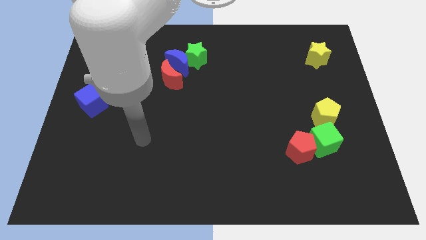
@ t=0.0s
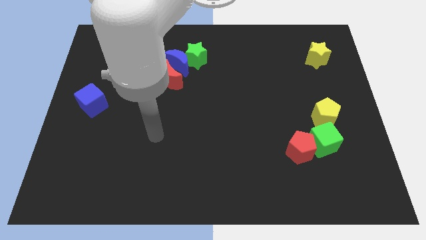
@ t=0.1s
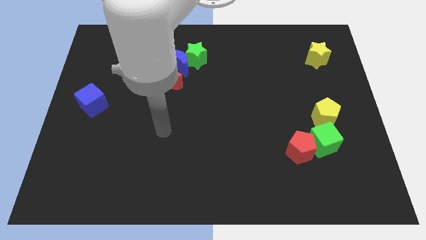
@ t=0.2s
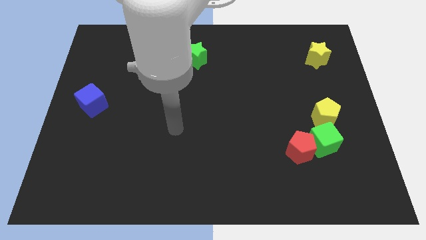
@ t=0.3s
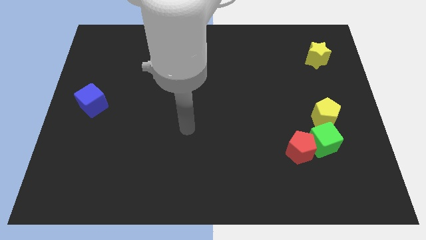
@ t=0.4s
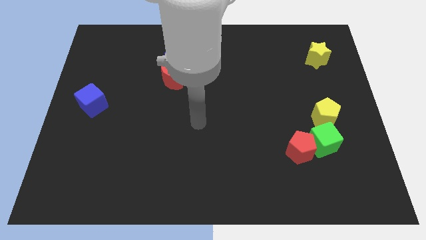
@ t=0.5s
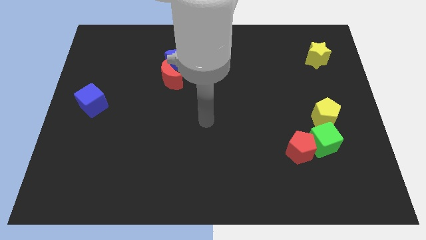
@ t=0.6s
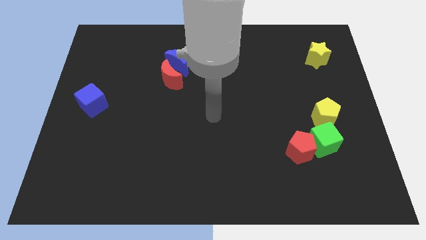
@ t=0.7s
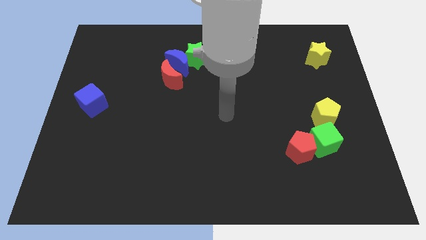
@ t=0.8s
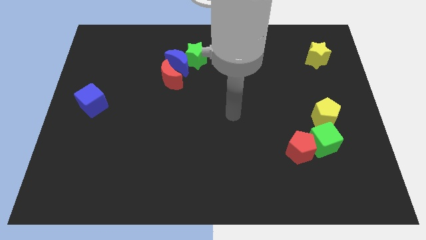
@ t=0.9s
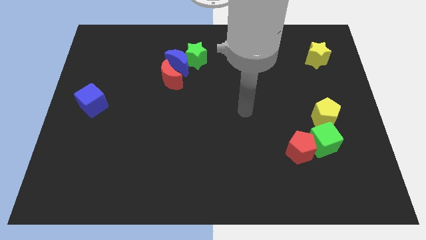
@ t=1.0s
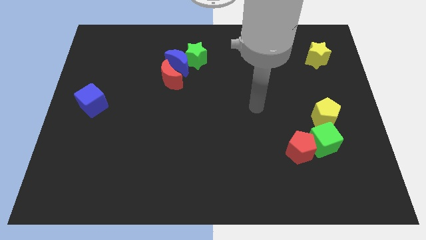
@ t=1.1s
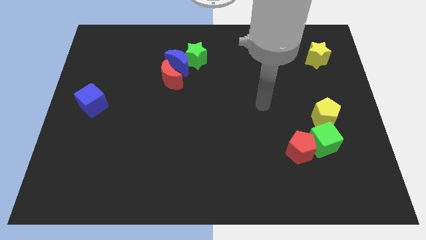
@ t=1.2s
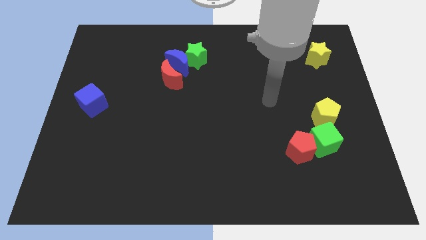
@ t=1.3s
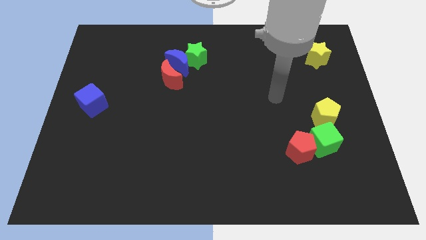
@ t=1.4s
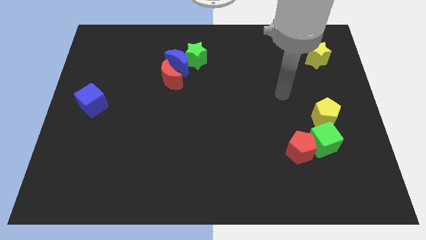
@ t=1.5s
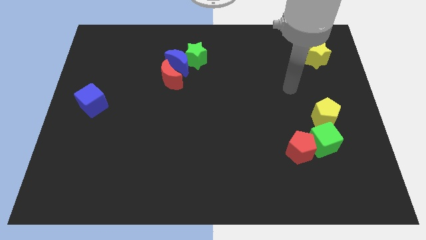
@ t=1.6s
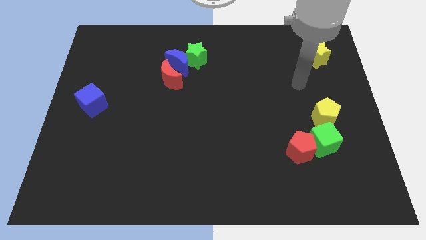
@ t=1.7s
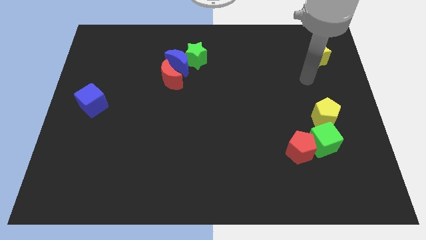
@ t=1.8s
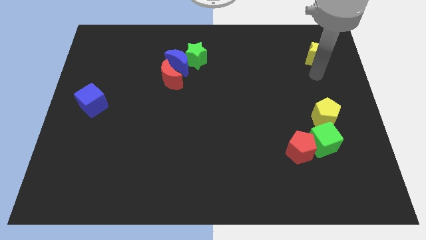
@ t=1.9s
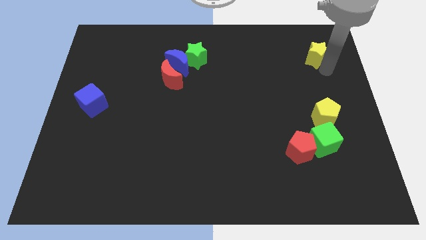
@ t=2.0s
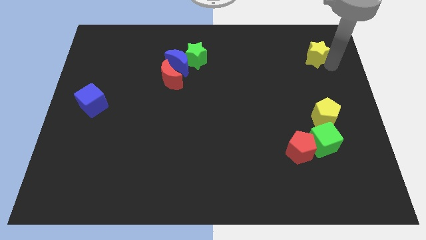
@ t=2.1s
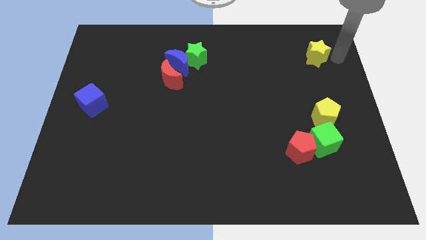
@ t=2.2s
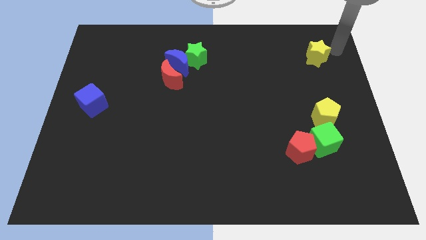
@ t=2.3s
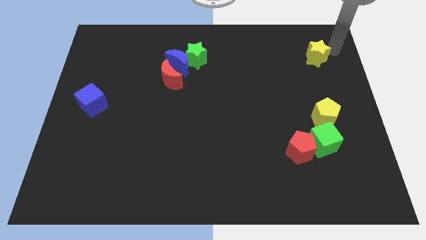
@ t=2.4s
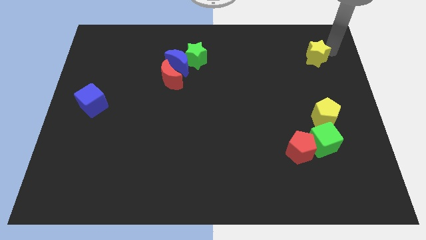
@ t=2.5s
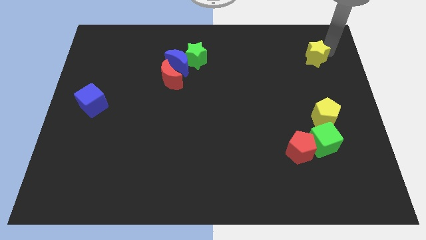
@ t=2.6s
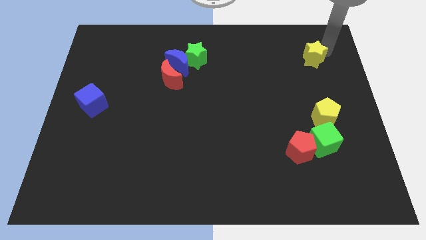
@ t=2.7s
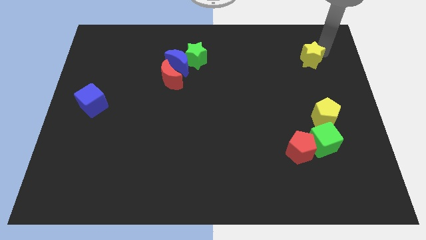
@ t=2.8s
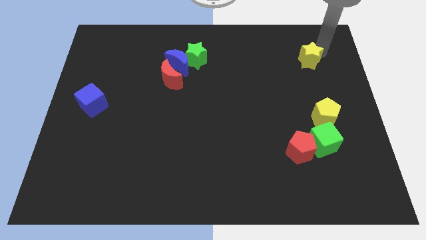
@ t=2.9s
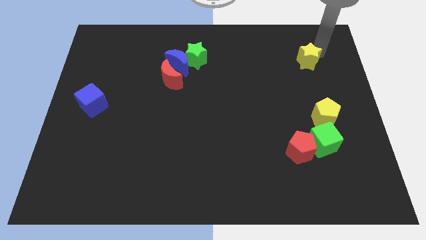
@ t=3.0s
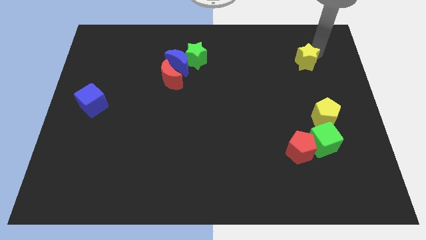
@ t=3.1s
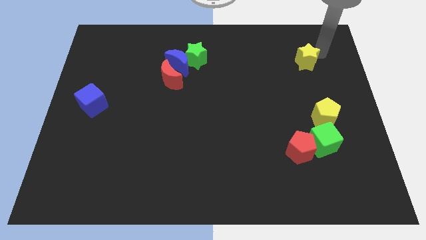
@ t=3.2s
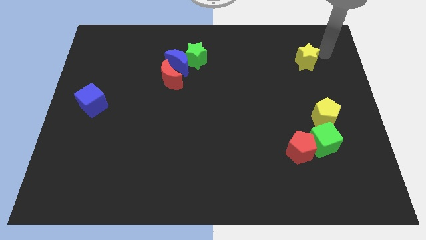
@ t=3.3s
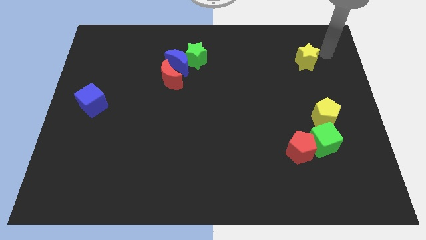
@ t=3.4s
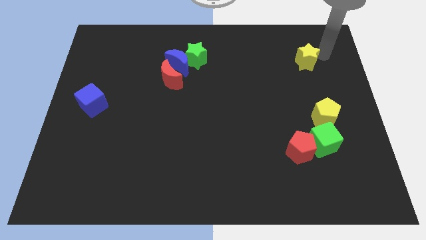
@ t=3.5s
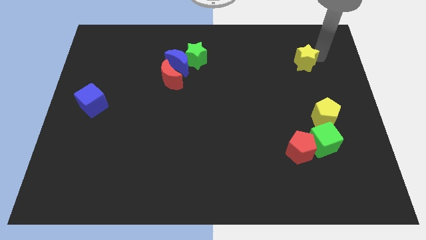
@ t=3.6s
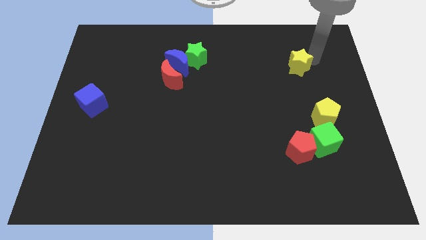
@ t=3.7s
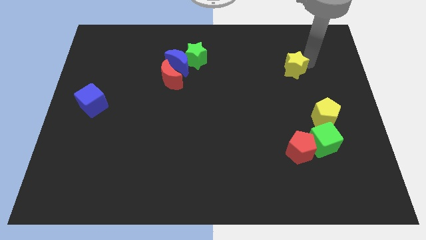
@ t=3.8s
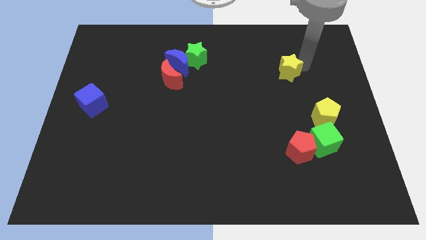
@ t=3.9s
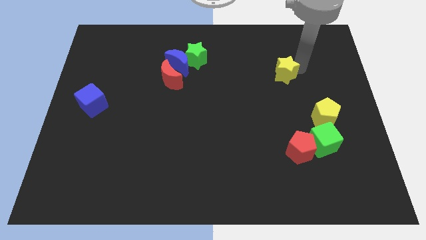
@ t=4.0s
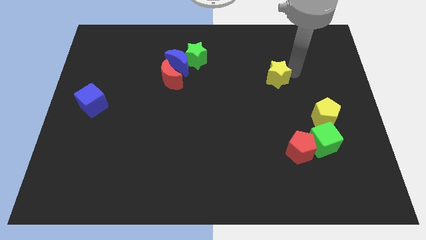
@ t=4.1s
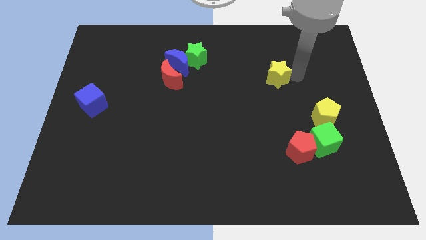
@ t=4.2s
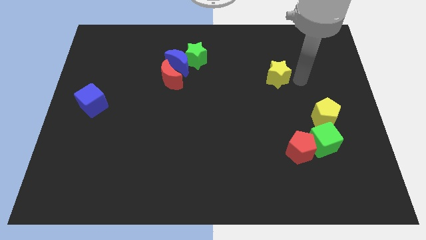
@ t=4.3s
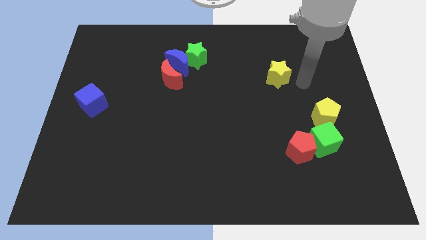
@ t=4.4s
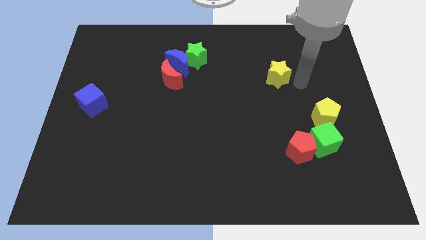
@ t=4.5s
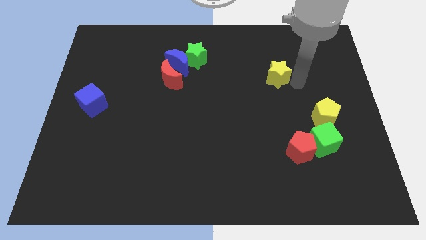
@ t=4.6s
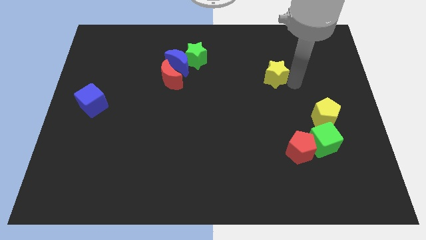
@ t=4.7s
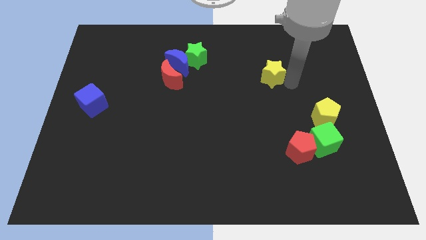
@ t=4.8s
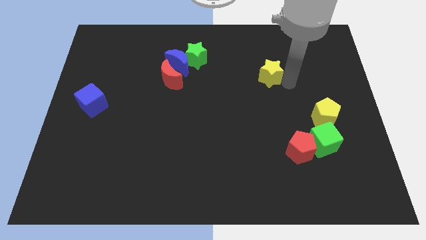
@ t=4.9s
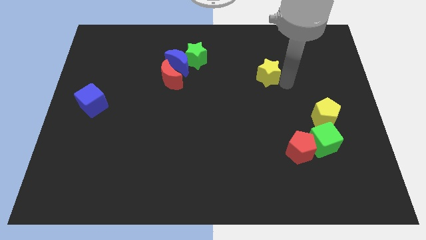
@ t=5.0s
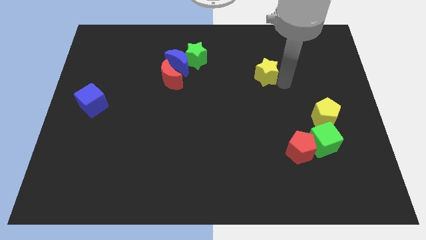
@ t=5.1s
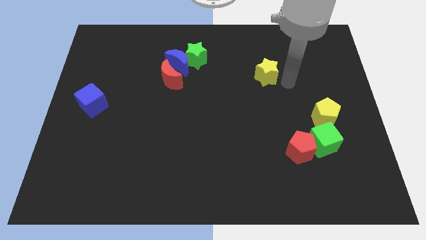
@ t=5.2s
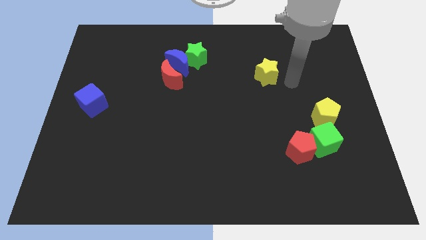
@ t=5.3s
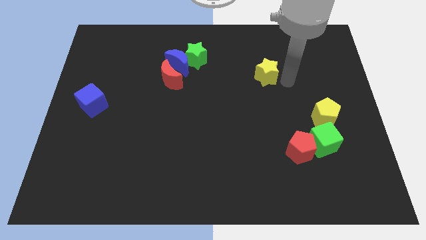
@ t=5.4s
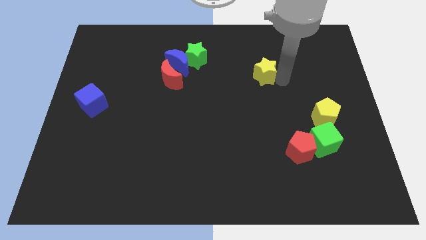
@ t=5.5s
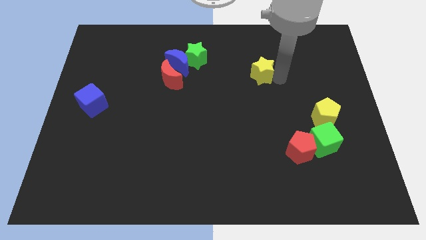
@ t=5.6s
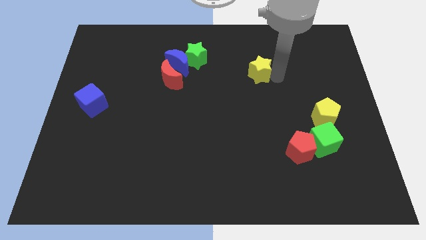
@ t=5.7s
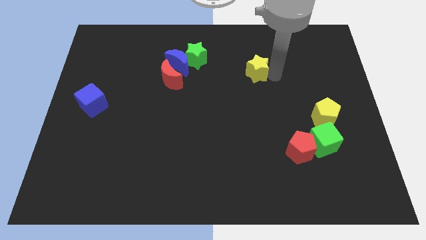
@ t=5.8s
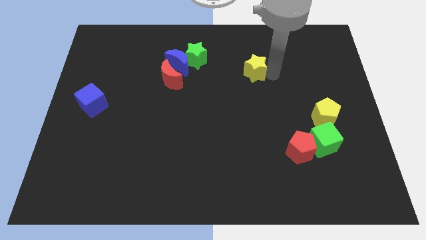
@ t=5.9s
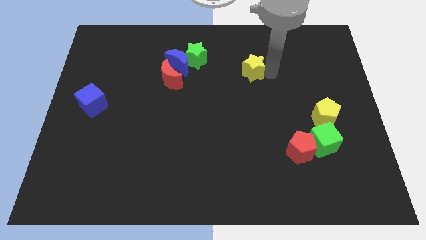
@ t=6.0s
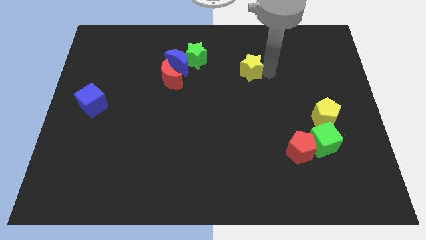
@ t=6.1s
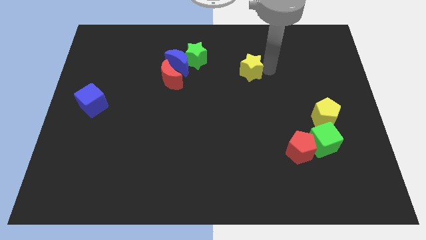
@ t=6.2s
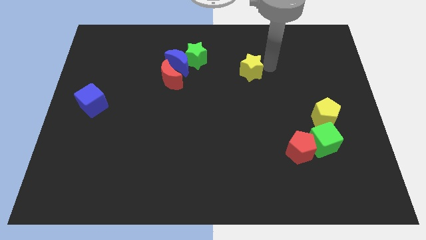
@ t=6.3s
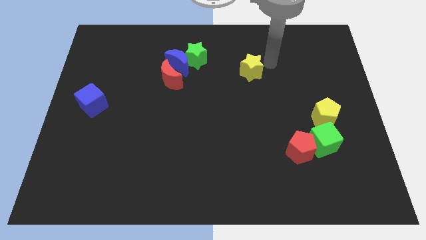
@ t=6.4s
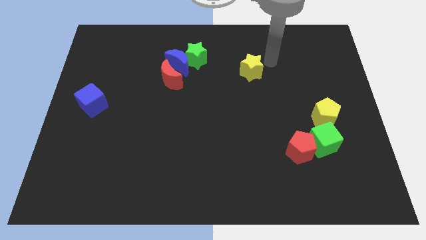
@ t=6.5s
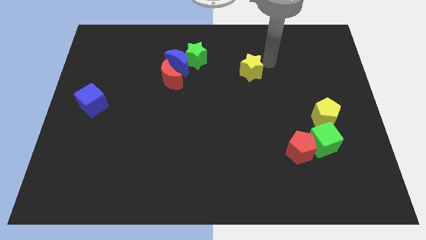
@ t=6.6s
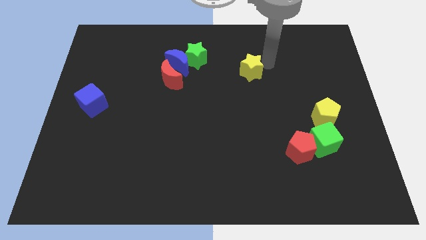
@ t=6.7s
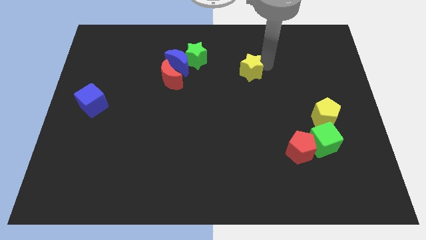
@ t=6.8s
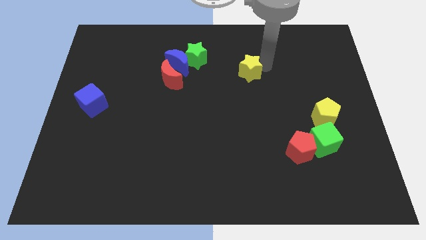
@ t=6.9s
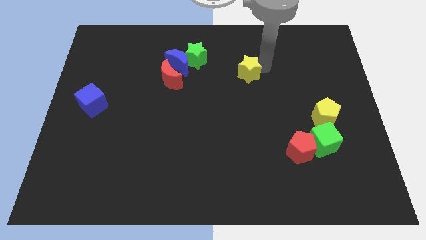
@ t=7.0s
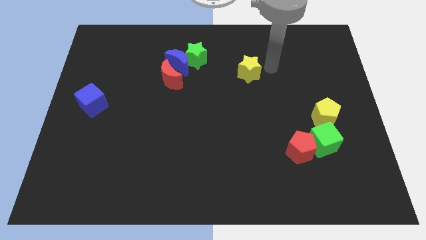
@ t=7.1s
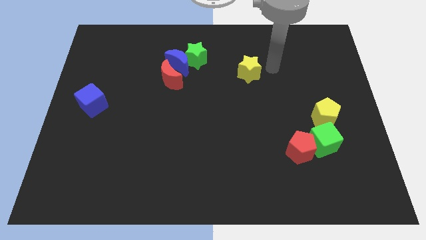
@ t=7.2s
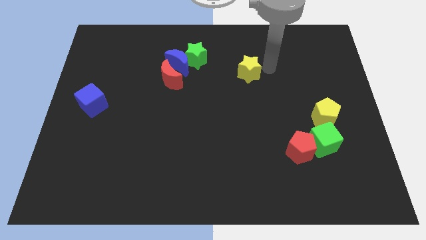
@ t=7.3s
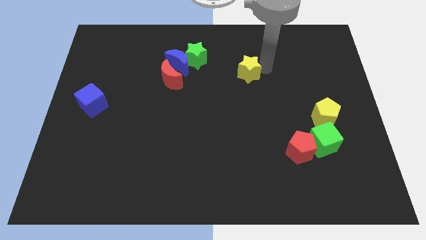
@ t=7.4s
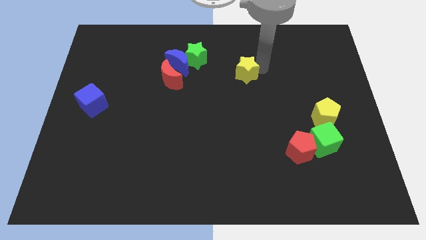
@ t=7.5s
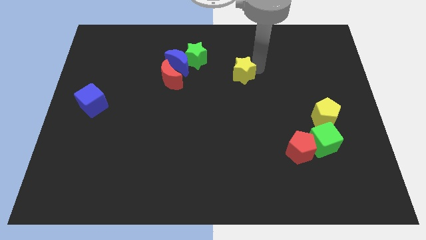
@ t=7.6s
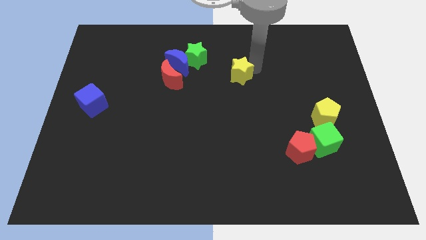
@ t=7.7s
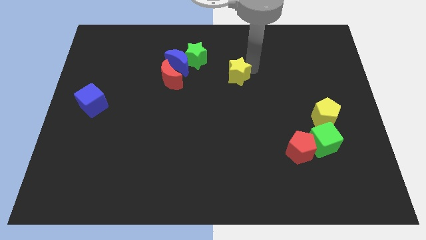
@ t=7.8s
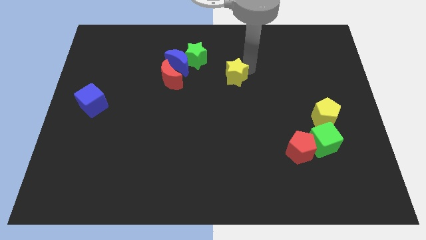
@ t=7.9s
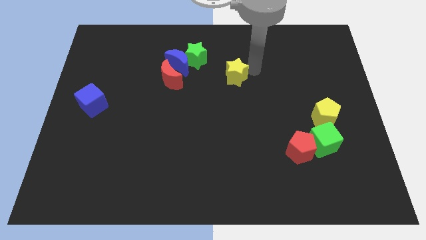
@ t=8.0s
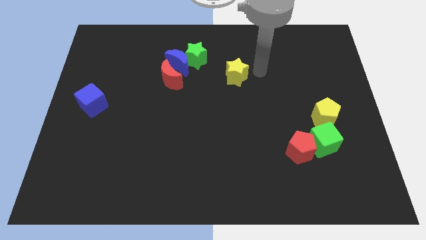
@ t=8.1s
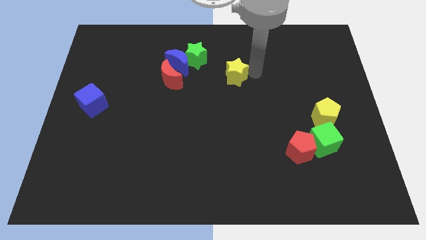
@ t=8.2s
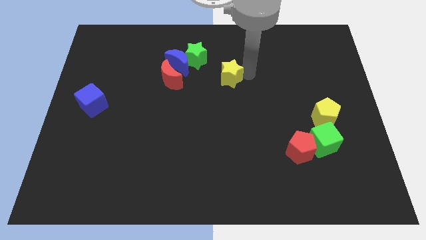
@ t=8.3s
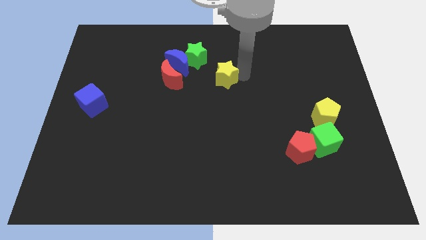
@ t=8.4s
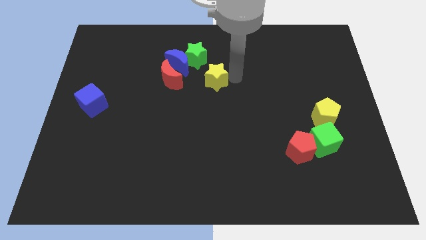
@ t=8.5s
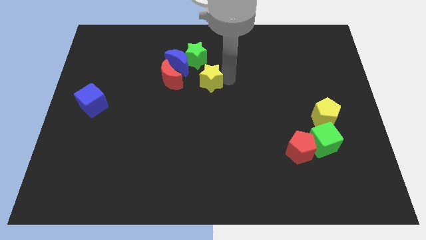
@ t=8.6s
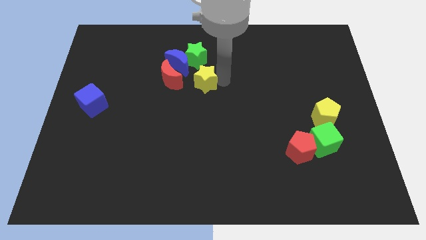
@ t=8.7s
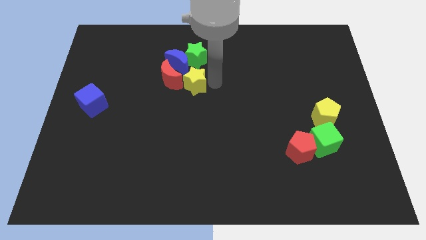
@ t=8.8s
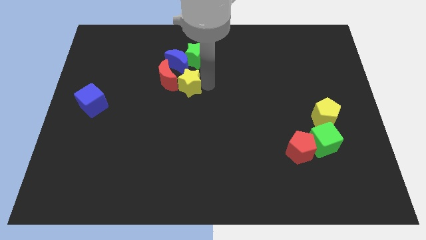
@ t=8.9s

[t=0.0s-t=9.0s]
push the yellow star close to the red moon
